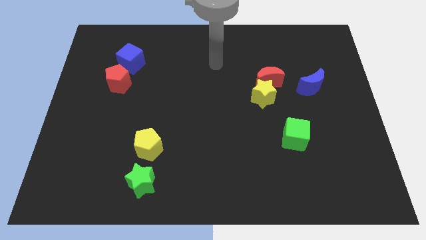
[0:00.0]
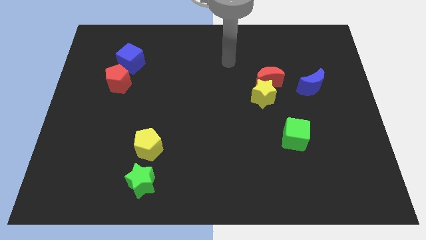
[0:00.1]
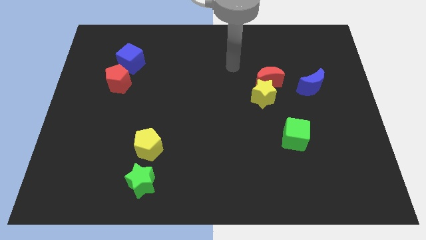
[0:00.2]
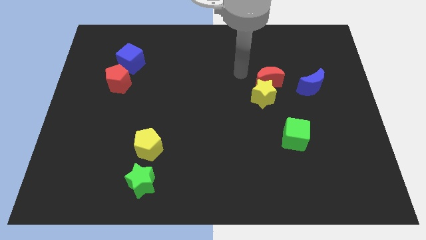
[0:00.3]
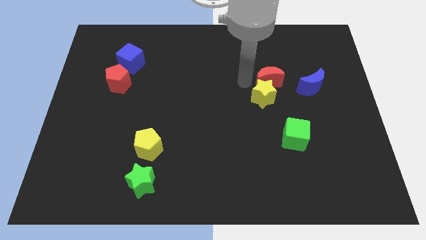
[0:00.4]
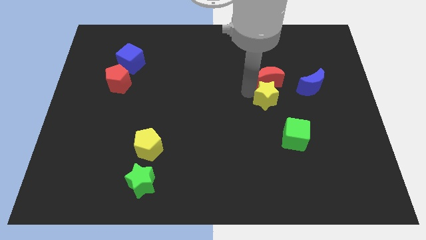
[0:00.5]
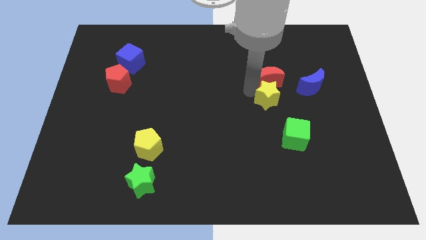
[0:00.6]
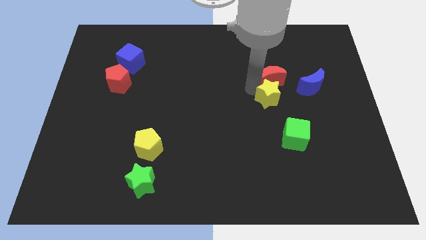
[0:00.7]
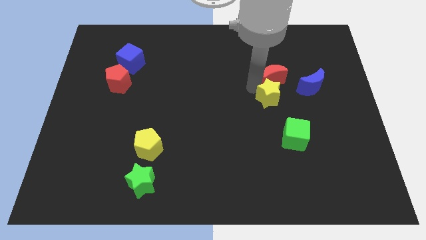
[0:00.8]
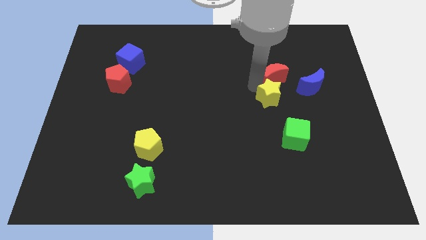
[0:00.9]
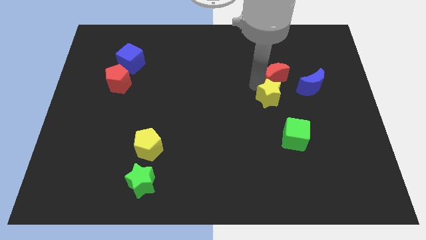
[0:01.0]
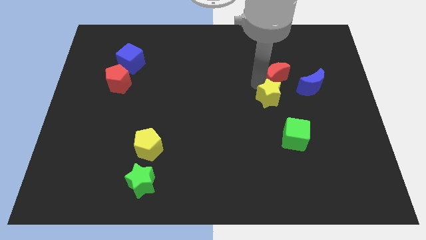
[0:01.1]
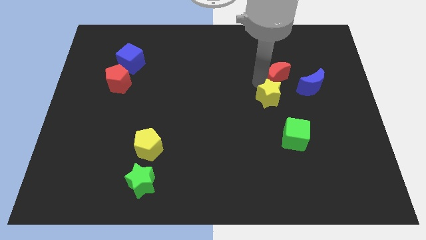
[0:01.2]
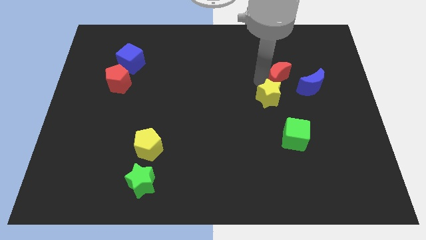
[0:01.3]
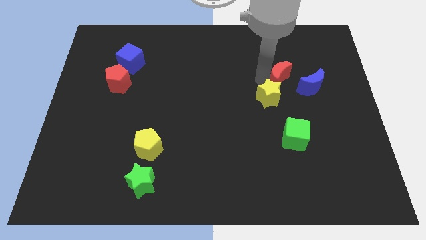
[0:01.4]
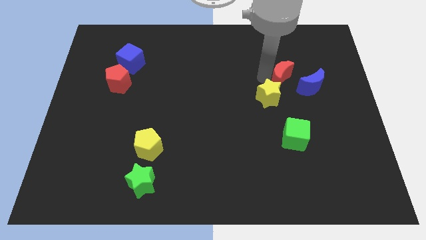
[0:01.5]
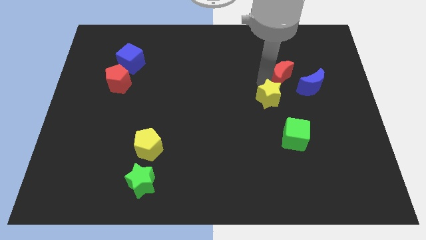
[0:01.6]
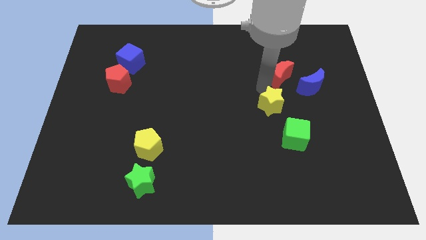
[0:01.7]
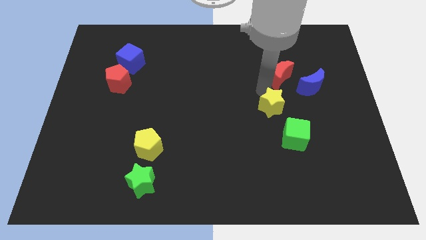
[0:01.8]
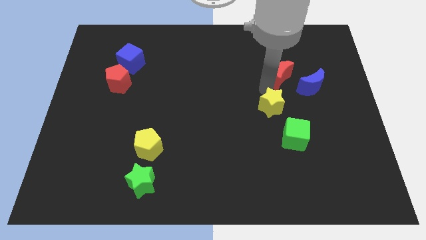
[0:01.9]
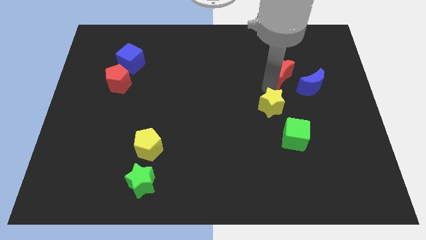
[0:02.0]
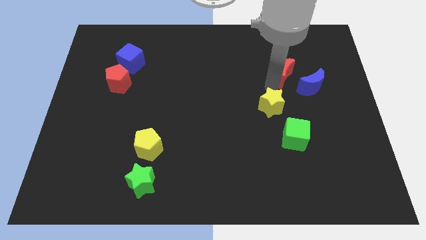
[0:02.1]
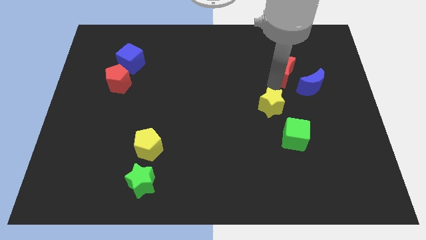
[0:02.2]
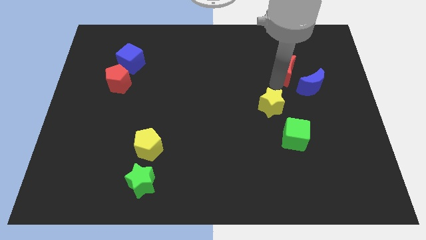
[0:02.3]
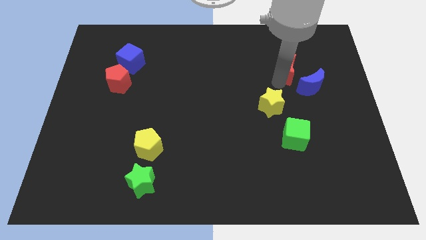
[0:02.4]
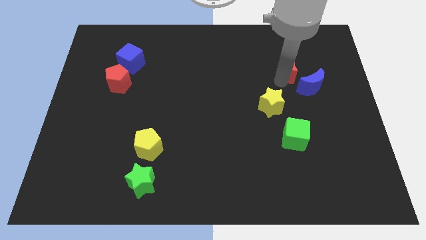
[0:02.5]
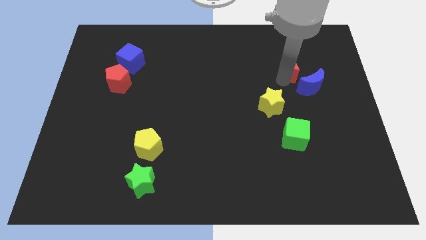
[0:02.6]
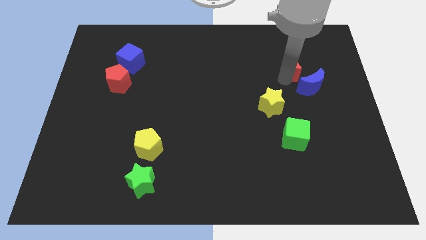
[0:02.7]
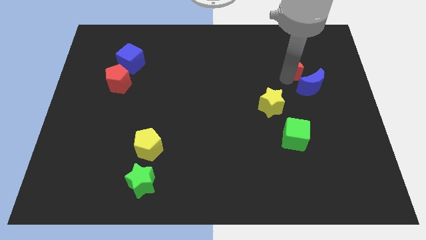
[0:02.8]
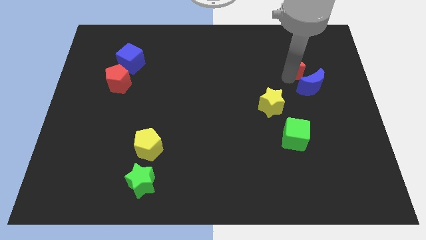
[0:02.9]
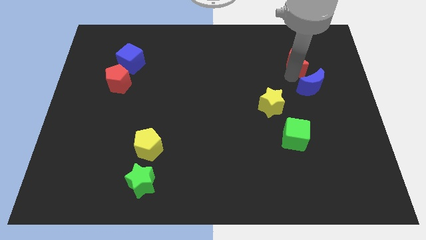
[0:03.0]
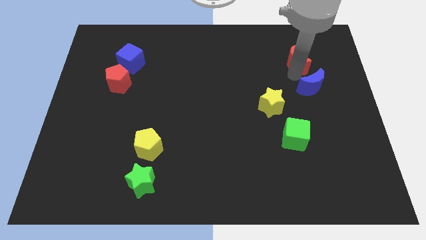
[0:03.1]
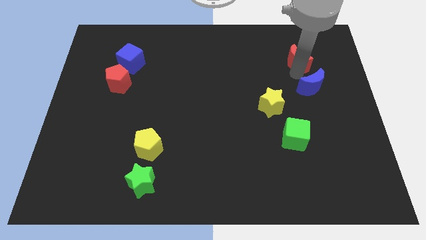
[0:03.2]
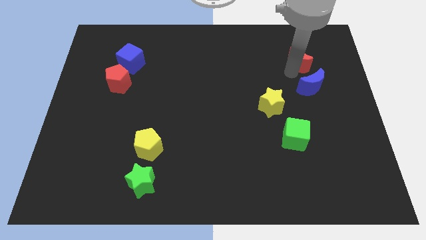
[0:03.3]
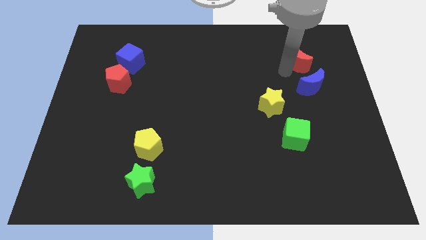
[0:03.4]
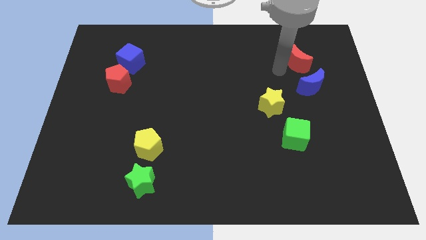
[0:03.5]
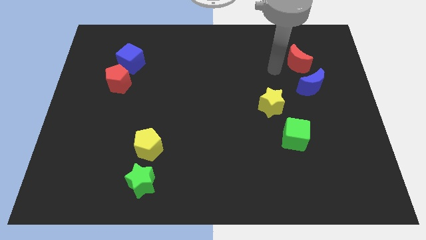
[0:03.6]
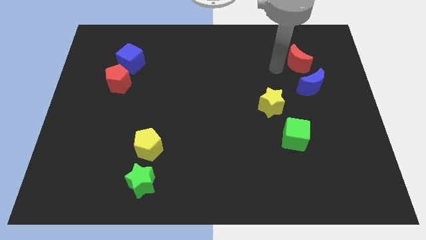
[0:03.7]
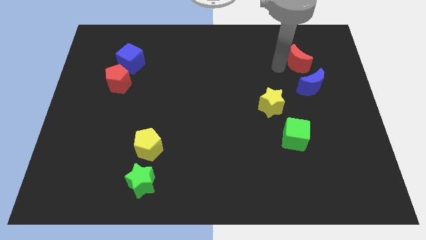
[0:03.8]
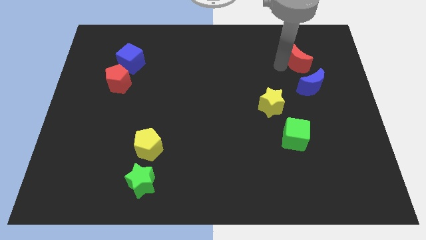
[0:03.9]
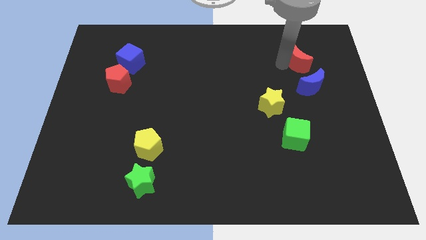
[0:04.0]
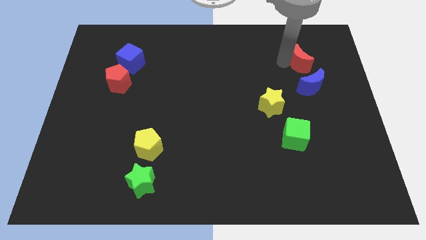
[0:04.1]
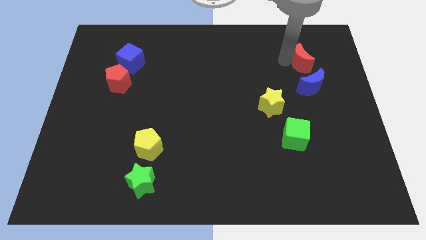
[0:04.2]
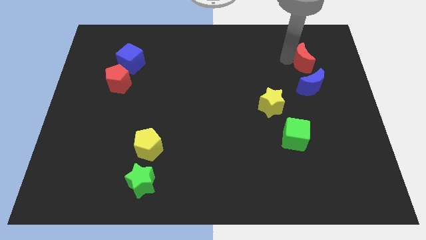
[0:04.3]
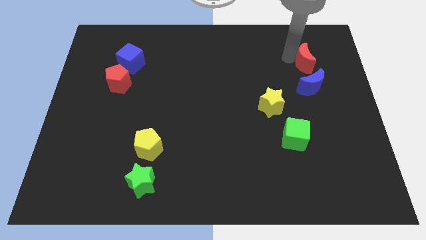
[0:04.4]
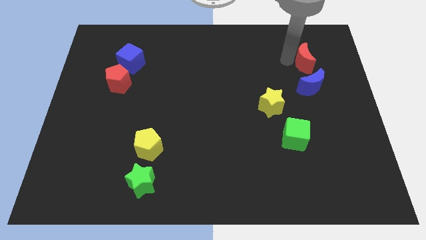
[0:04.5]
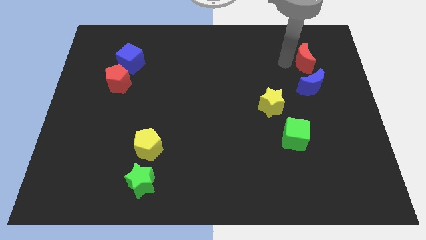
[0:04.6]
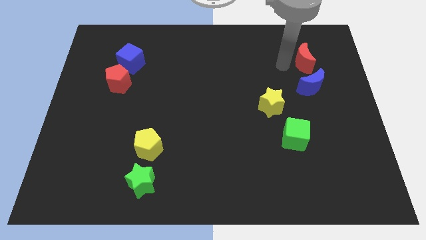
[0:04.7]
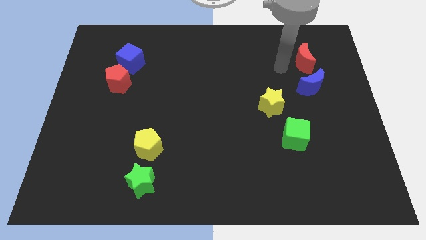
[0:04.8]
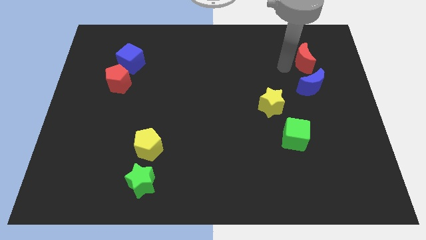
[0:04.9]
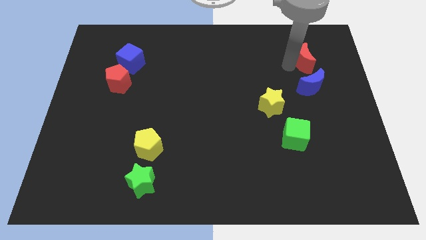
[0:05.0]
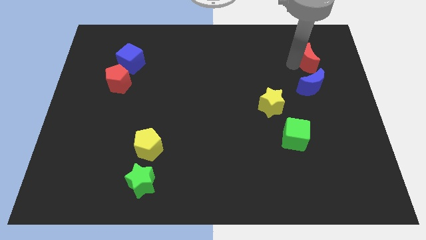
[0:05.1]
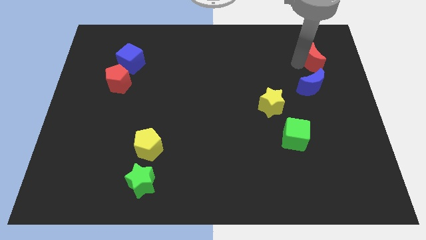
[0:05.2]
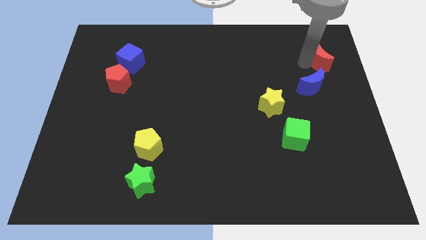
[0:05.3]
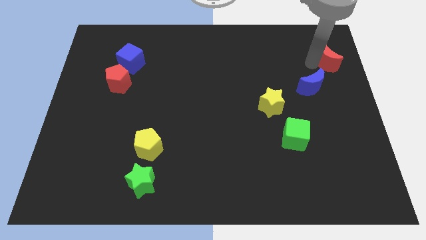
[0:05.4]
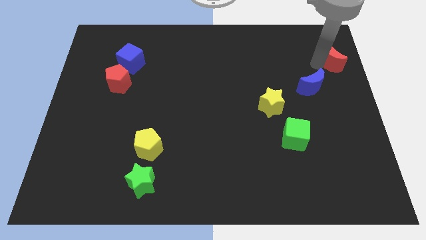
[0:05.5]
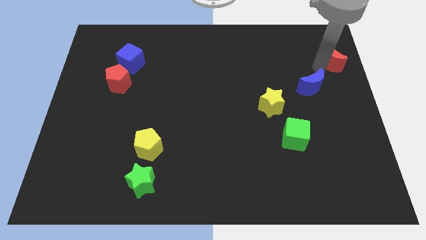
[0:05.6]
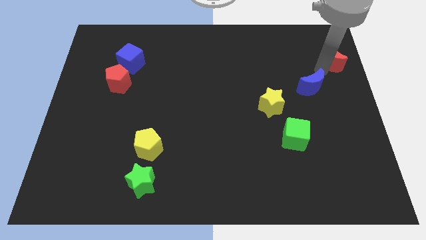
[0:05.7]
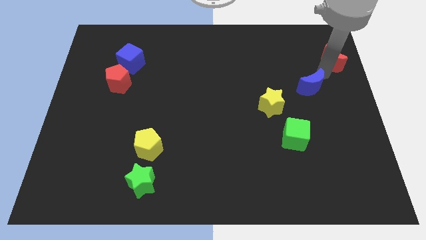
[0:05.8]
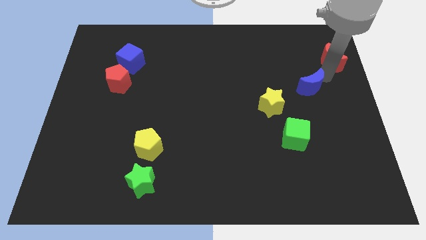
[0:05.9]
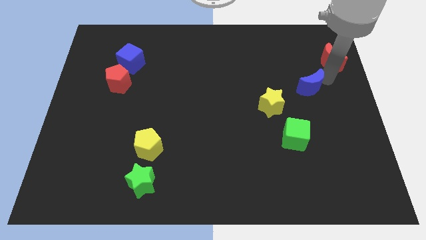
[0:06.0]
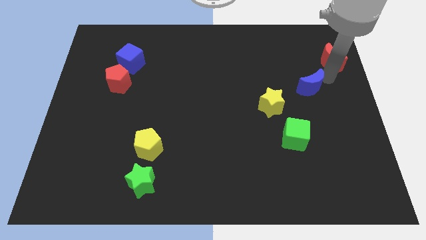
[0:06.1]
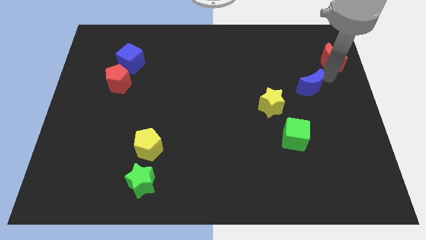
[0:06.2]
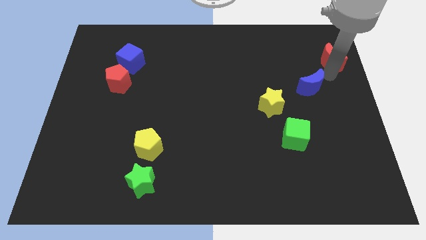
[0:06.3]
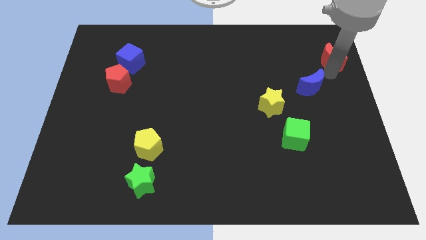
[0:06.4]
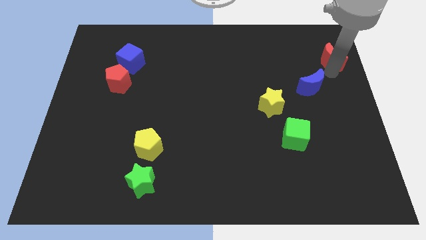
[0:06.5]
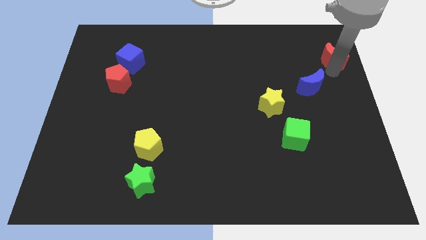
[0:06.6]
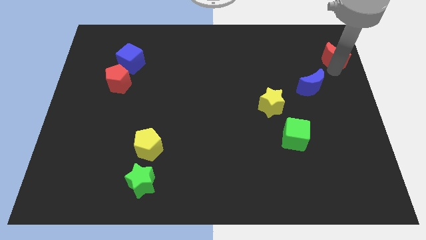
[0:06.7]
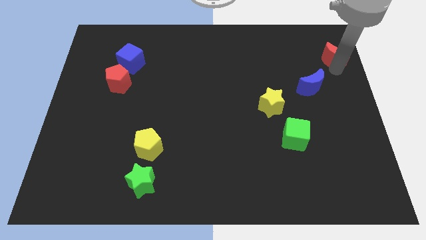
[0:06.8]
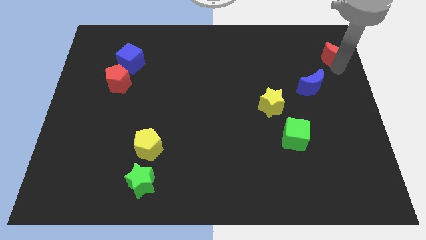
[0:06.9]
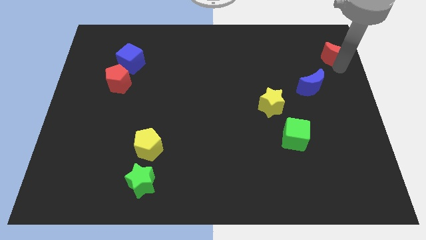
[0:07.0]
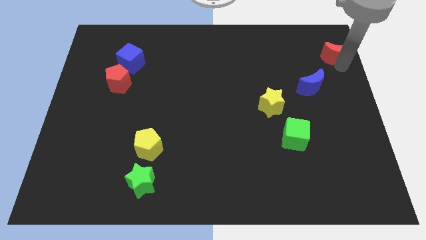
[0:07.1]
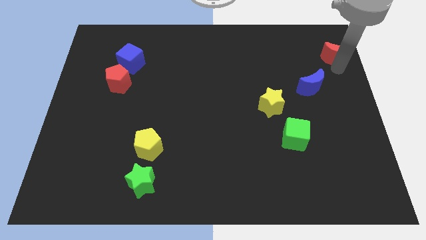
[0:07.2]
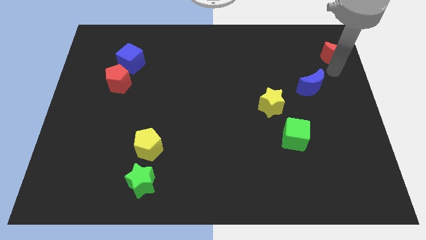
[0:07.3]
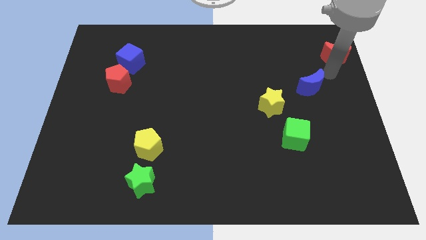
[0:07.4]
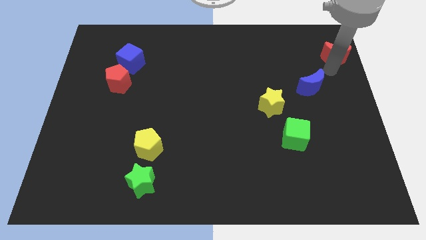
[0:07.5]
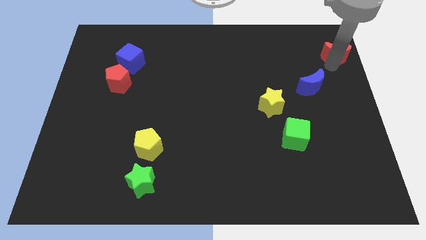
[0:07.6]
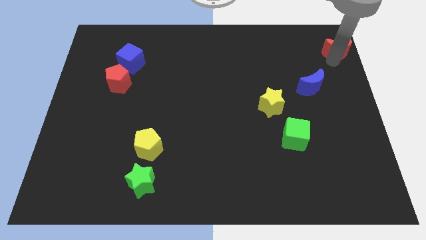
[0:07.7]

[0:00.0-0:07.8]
put the red moon to the upper right corner
